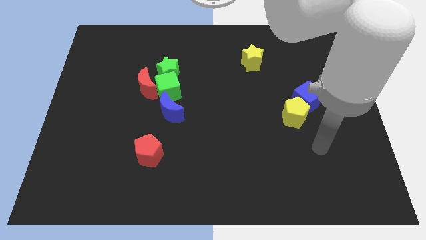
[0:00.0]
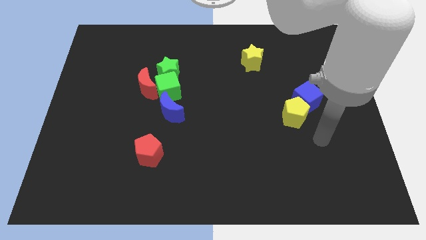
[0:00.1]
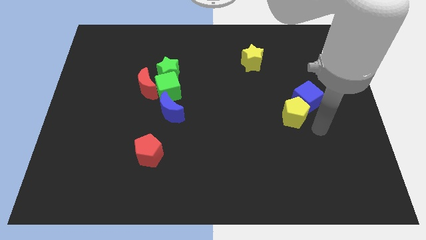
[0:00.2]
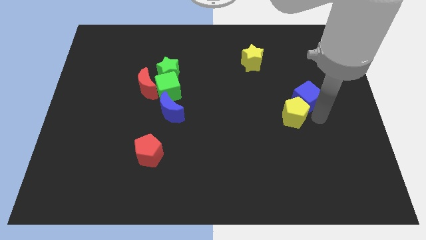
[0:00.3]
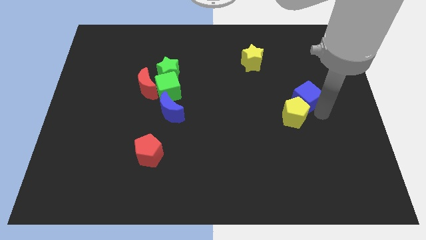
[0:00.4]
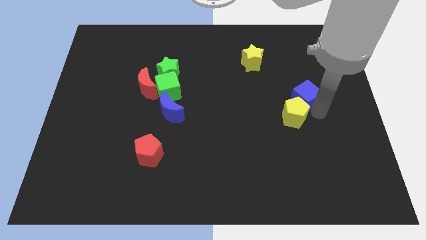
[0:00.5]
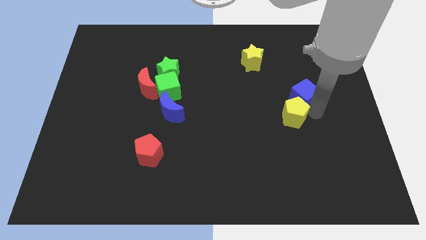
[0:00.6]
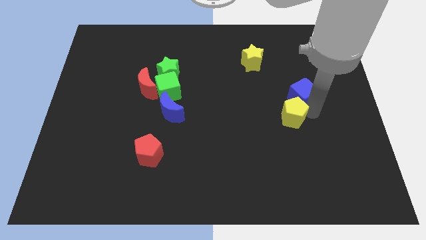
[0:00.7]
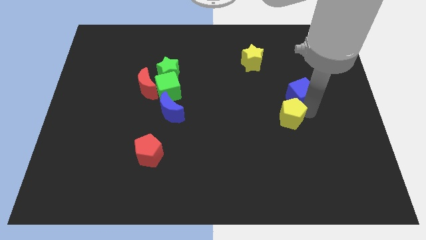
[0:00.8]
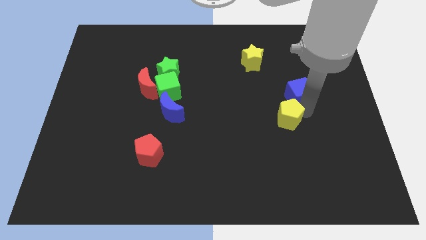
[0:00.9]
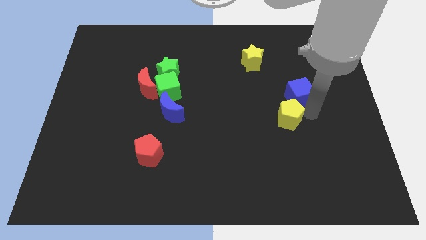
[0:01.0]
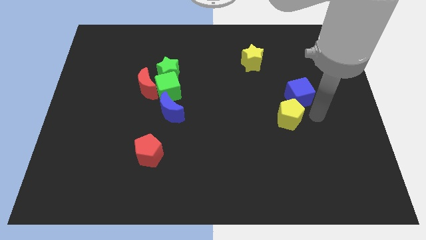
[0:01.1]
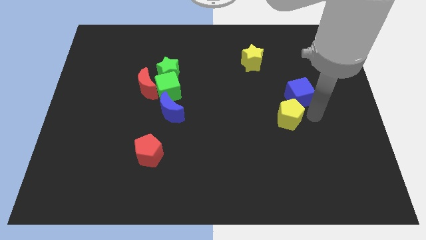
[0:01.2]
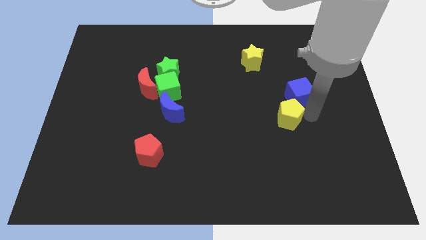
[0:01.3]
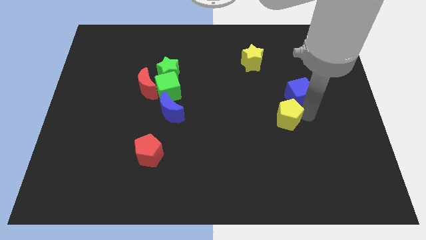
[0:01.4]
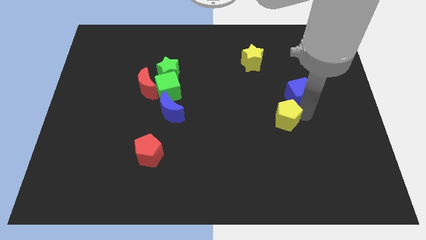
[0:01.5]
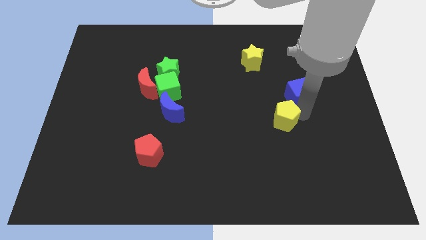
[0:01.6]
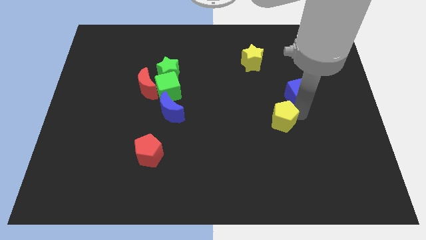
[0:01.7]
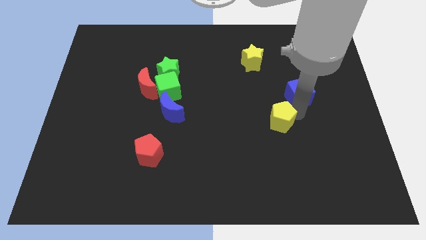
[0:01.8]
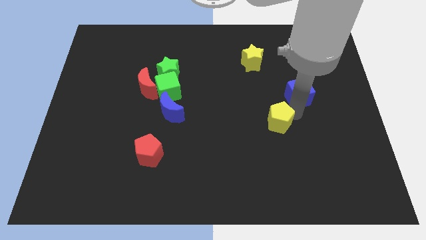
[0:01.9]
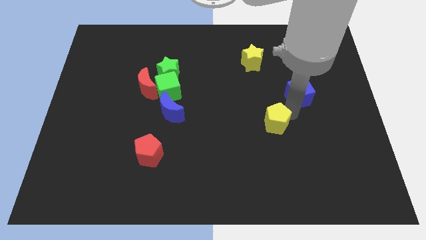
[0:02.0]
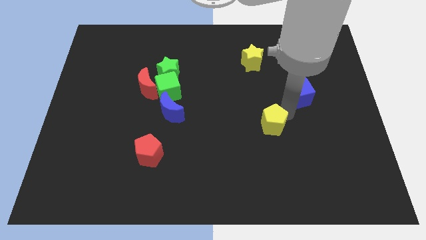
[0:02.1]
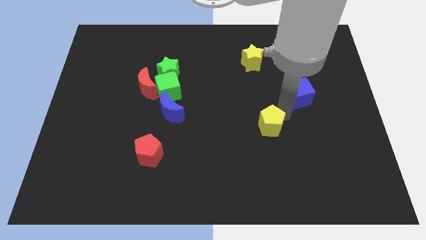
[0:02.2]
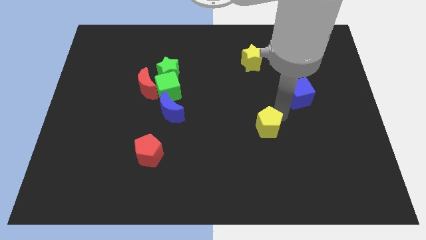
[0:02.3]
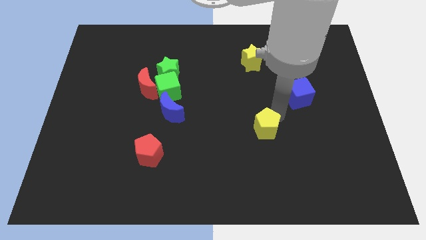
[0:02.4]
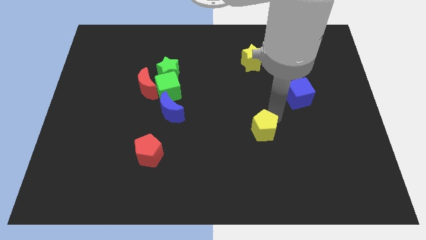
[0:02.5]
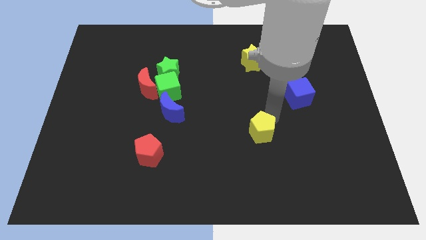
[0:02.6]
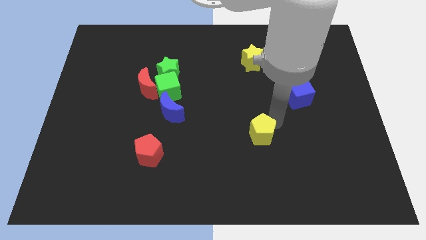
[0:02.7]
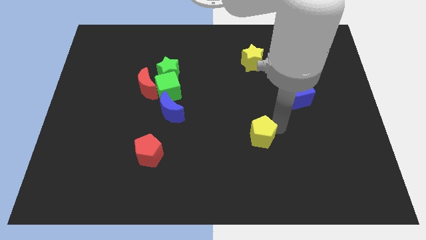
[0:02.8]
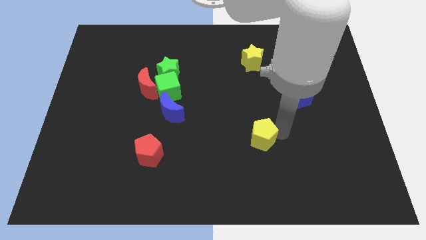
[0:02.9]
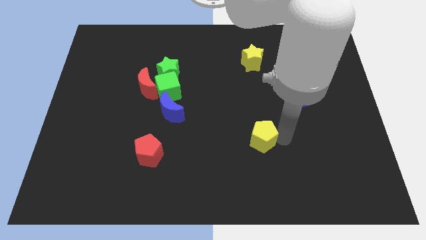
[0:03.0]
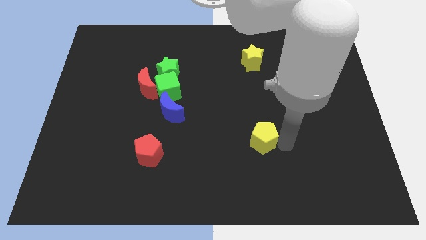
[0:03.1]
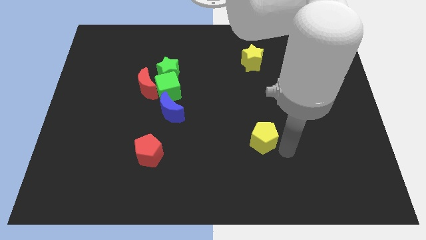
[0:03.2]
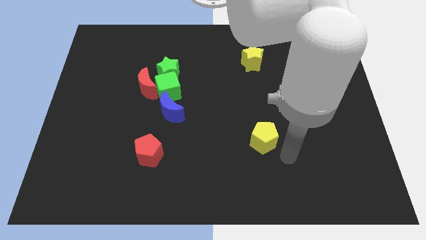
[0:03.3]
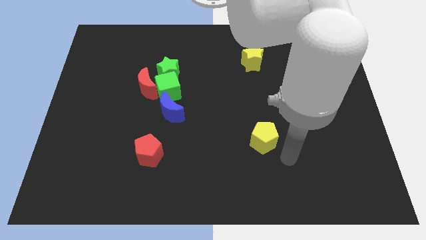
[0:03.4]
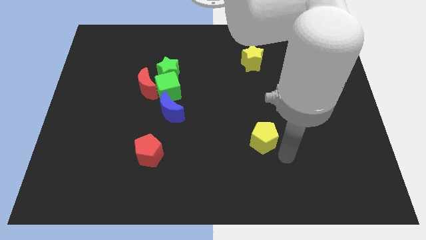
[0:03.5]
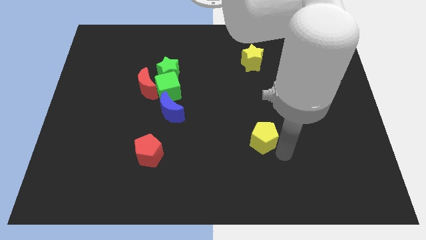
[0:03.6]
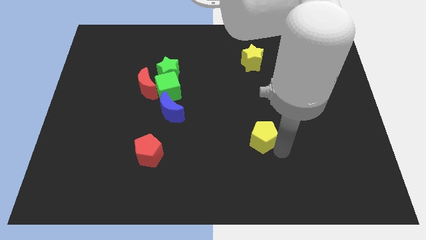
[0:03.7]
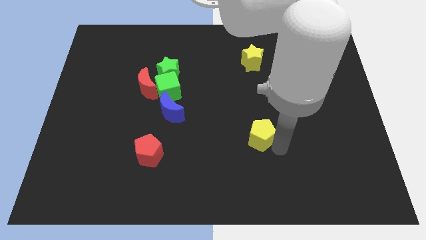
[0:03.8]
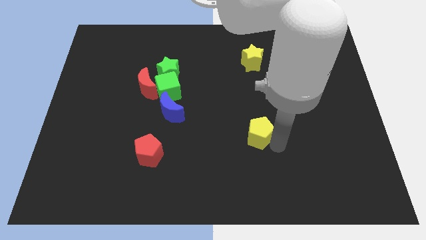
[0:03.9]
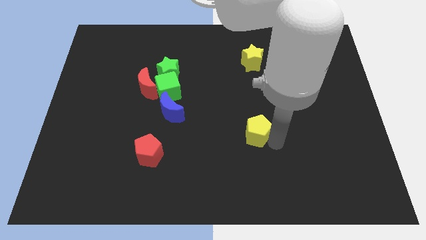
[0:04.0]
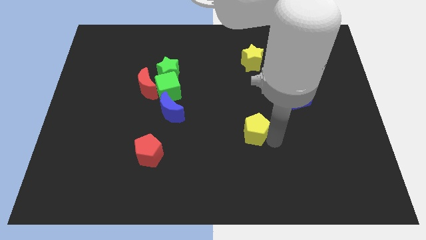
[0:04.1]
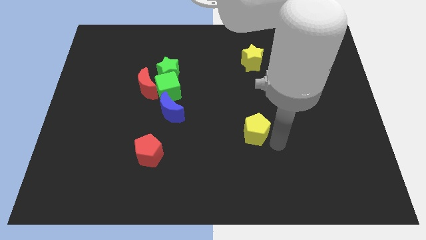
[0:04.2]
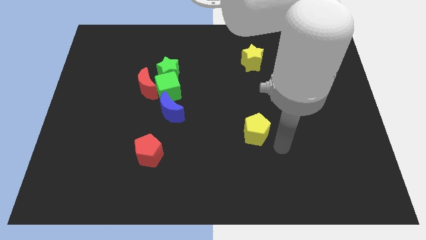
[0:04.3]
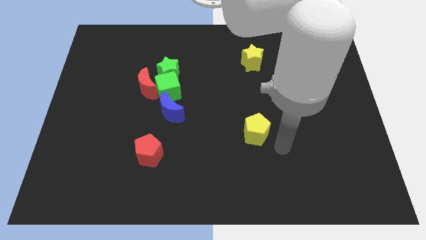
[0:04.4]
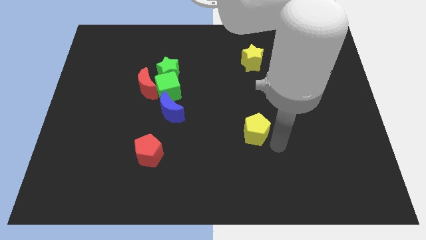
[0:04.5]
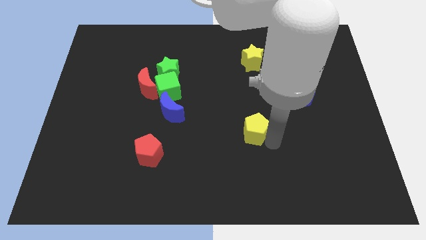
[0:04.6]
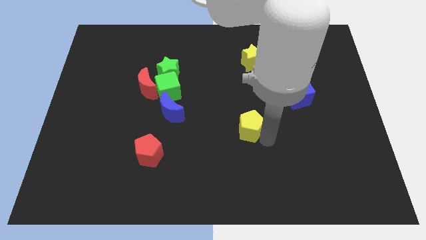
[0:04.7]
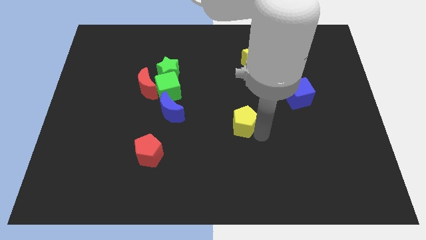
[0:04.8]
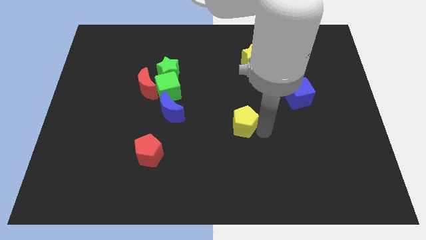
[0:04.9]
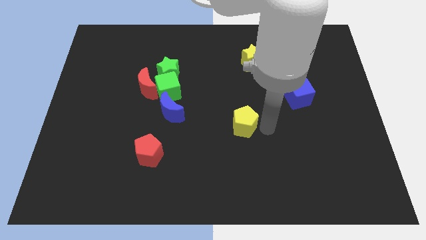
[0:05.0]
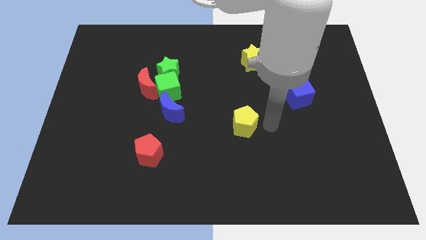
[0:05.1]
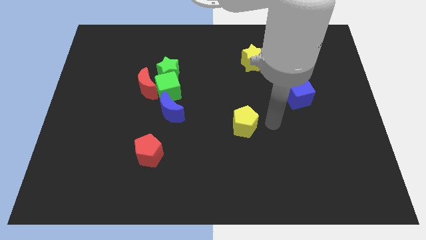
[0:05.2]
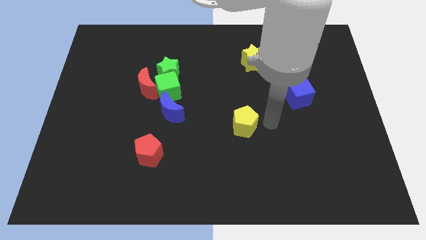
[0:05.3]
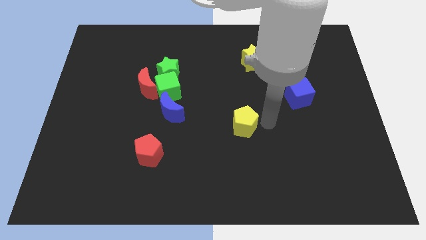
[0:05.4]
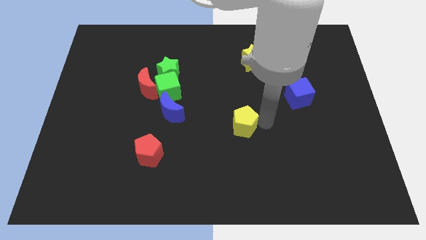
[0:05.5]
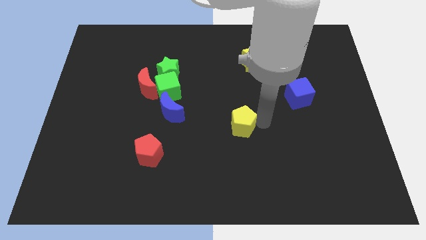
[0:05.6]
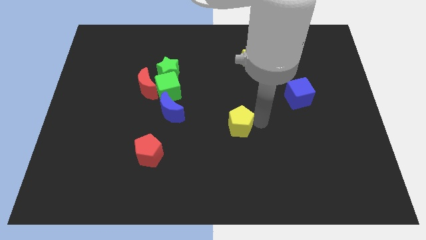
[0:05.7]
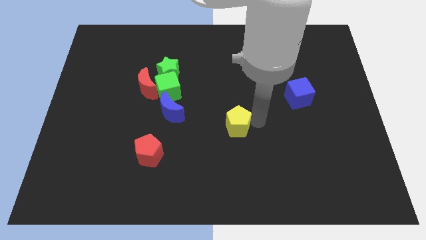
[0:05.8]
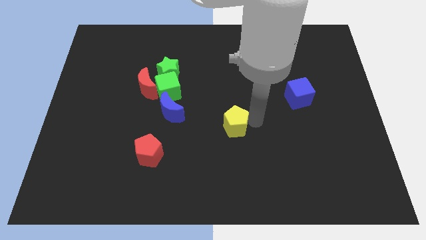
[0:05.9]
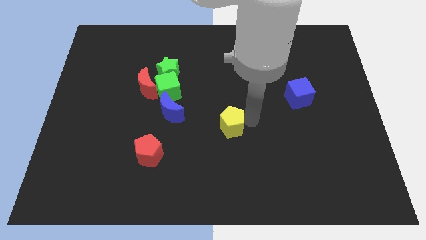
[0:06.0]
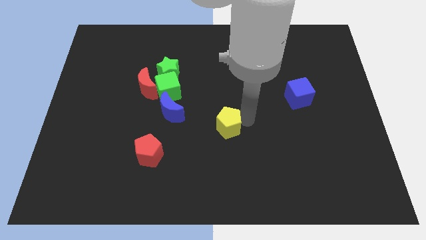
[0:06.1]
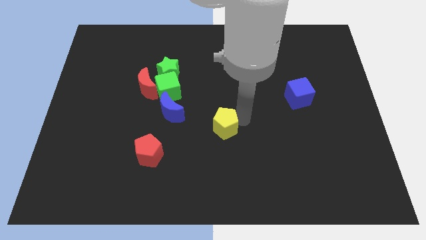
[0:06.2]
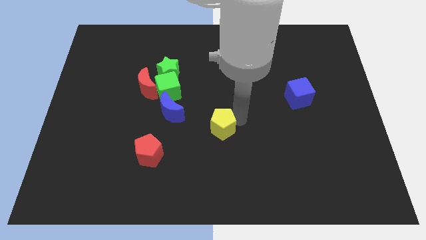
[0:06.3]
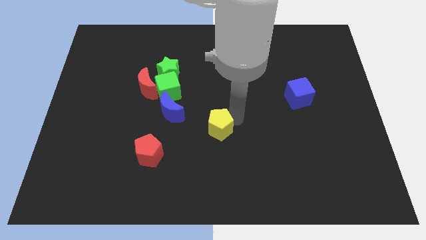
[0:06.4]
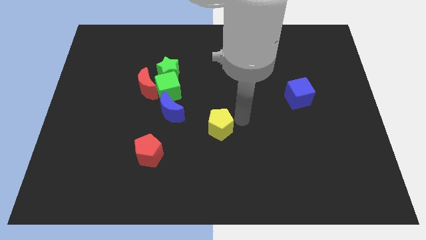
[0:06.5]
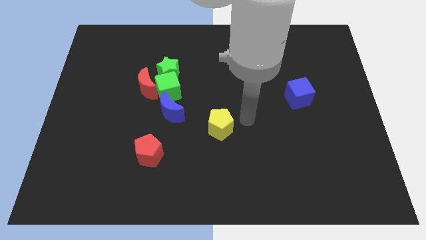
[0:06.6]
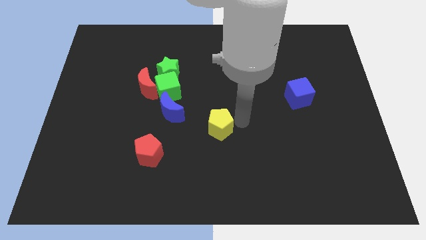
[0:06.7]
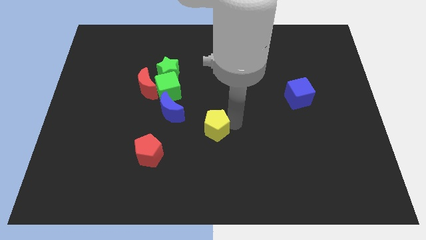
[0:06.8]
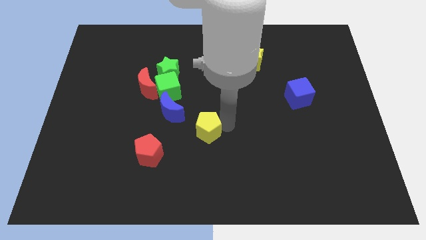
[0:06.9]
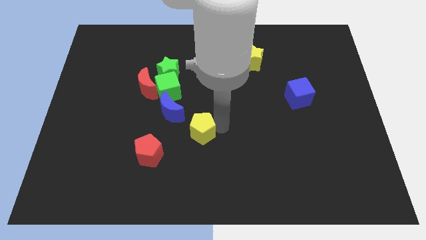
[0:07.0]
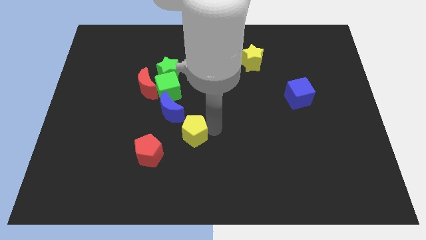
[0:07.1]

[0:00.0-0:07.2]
slide the yellow pentagon diagonally up and to the right of the red pentagon

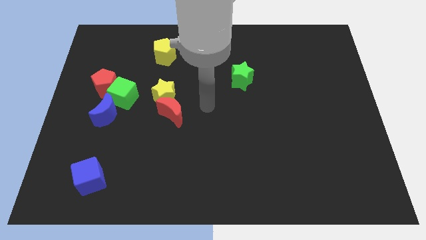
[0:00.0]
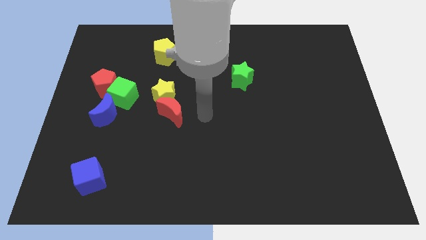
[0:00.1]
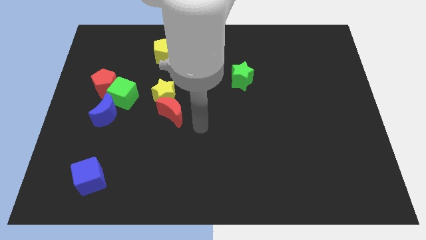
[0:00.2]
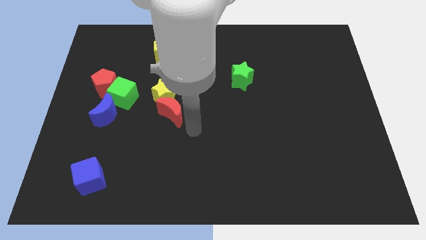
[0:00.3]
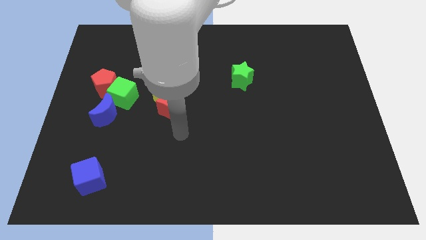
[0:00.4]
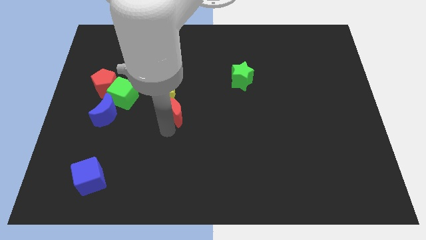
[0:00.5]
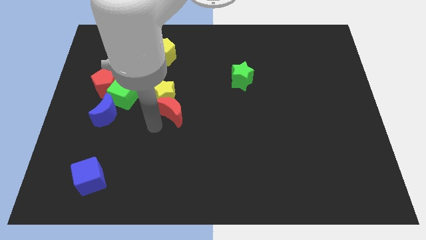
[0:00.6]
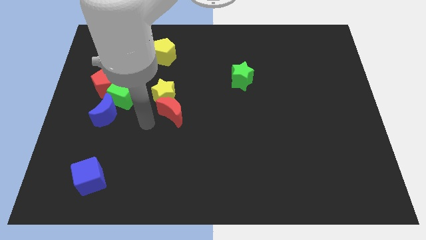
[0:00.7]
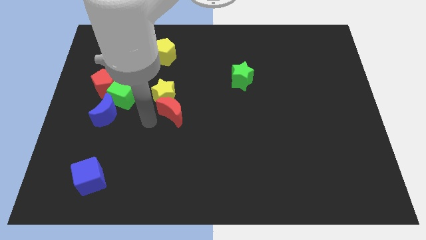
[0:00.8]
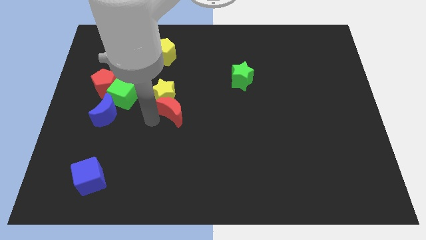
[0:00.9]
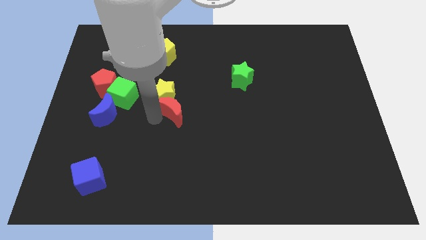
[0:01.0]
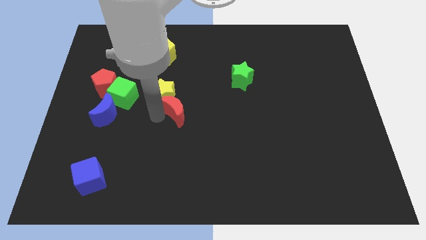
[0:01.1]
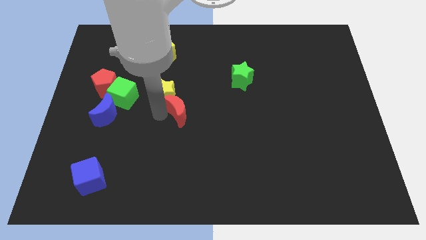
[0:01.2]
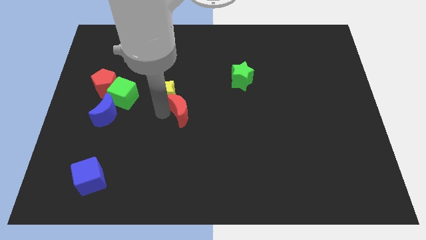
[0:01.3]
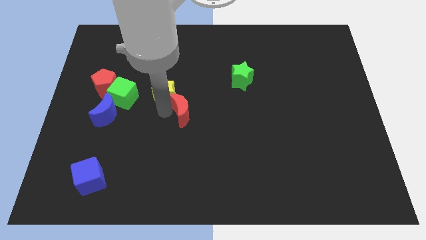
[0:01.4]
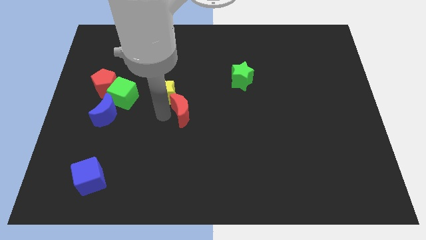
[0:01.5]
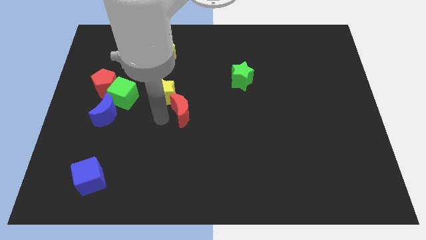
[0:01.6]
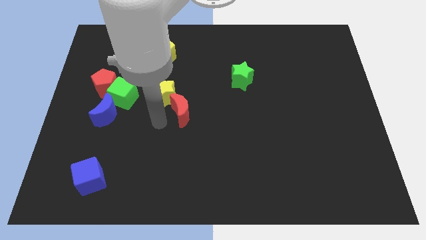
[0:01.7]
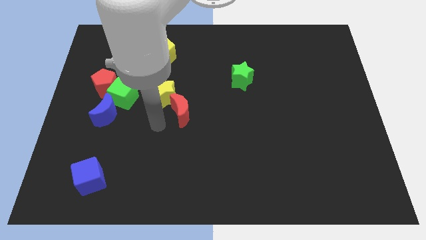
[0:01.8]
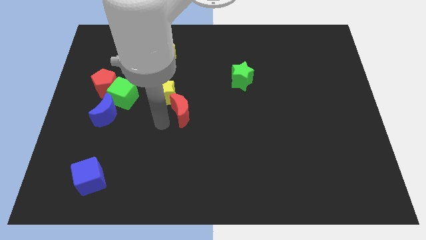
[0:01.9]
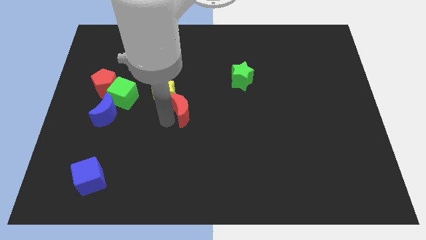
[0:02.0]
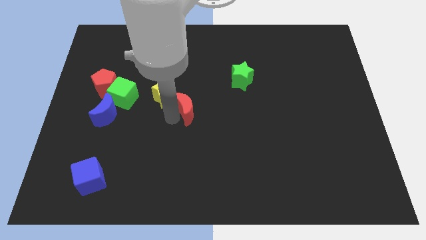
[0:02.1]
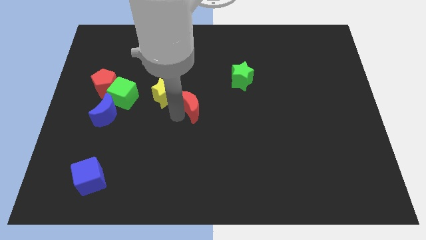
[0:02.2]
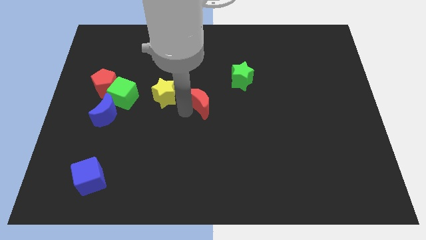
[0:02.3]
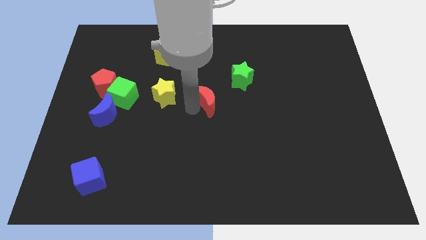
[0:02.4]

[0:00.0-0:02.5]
push the red moon diagonally down and to the left of the green star
